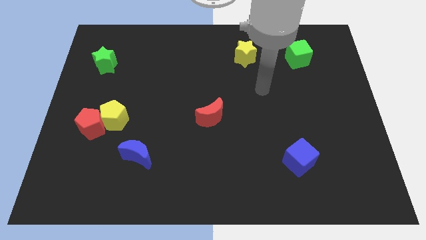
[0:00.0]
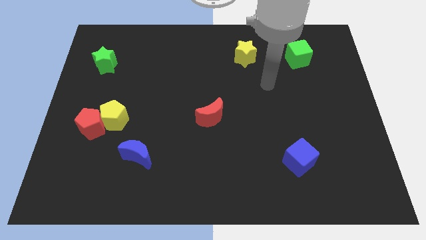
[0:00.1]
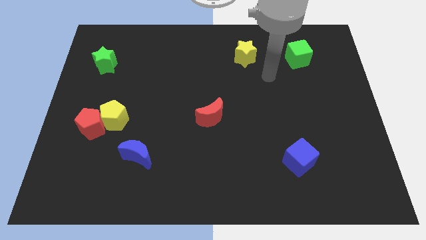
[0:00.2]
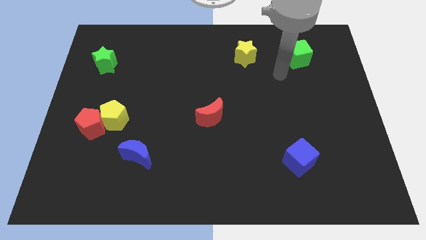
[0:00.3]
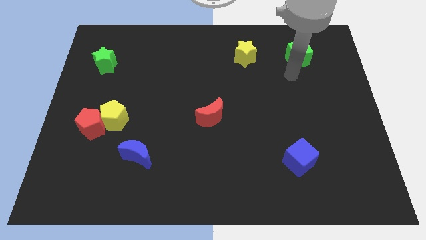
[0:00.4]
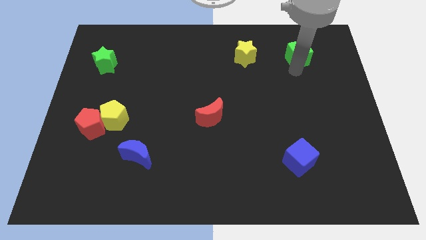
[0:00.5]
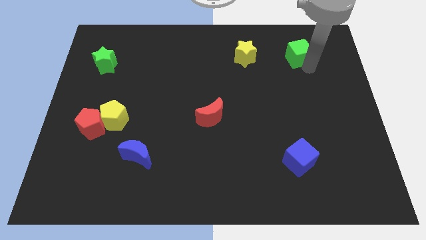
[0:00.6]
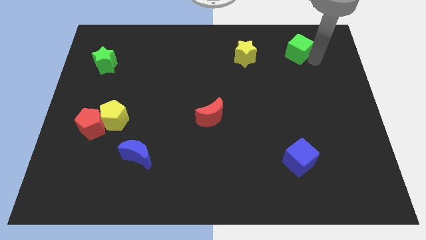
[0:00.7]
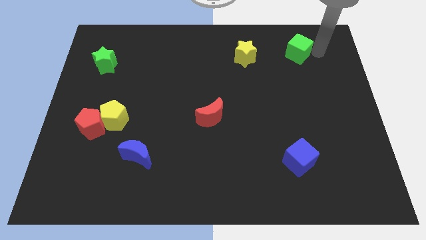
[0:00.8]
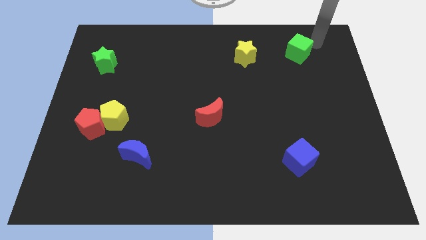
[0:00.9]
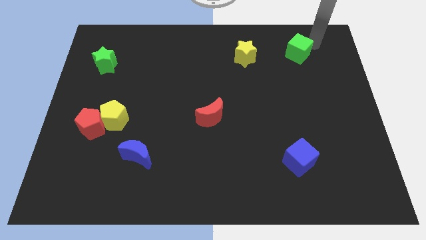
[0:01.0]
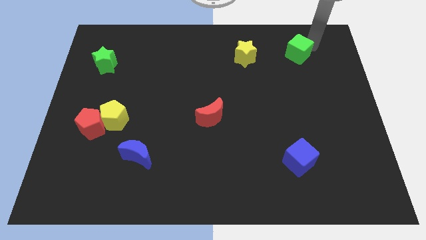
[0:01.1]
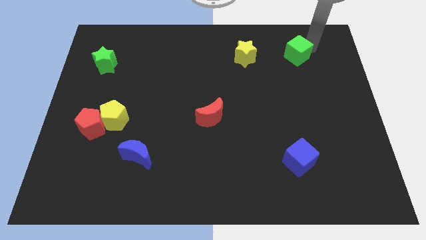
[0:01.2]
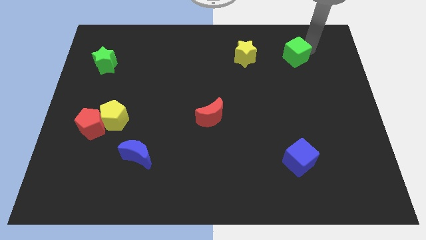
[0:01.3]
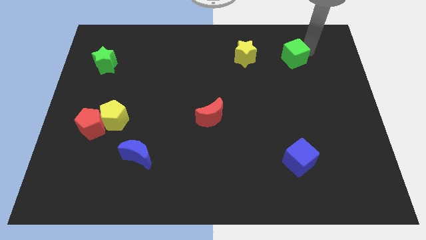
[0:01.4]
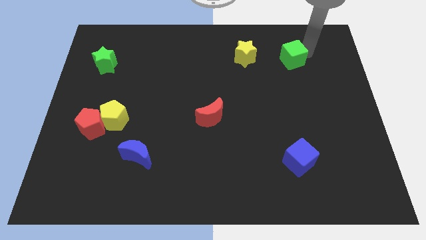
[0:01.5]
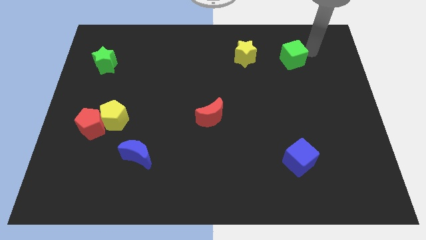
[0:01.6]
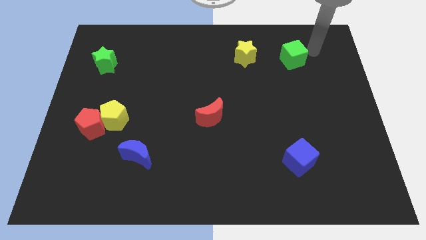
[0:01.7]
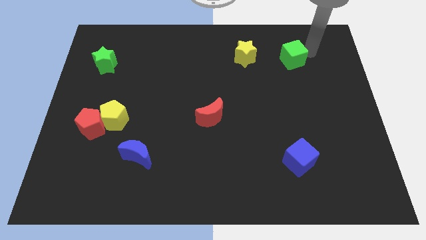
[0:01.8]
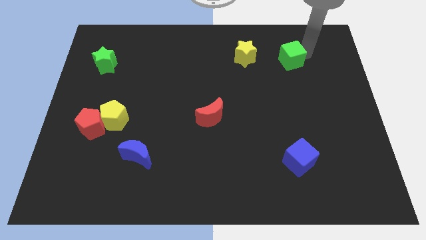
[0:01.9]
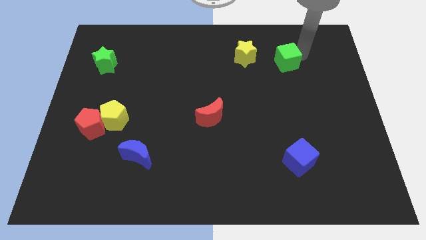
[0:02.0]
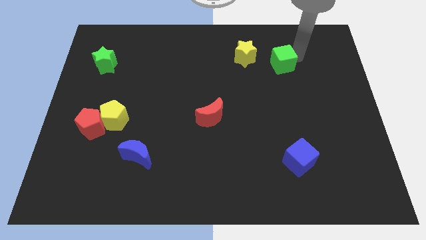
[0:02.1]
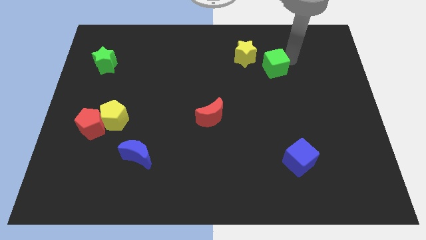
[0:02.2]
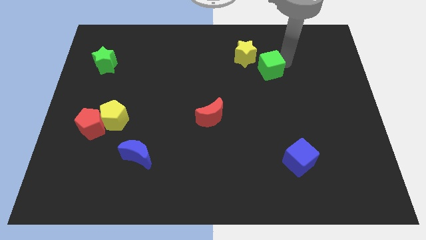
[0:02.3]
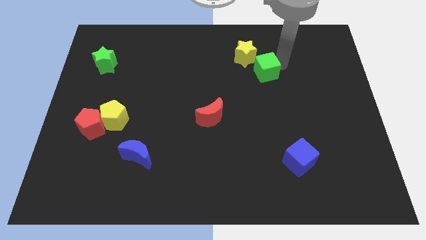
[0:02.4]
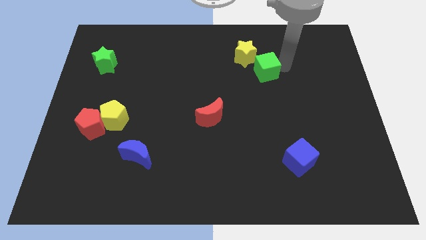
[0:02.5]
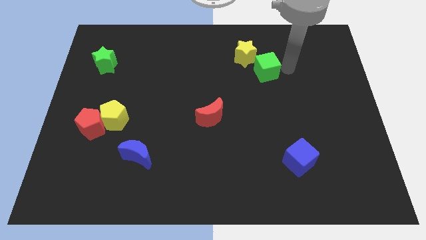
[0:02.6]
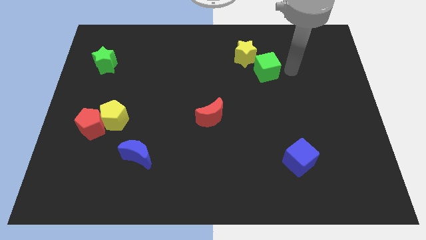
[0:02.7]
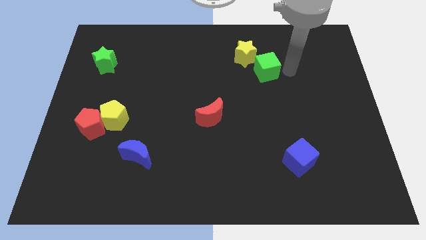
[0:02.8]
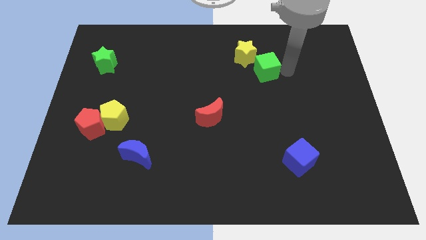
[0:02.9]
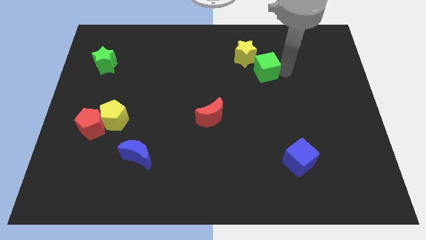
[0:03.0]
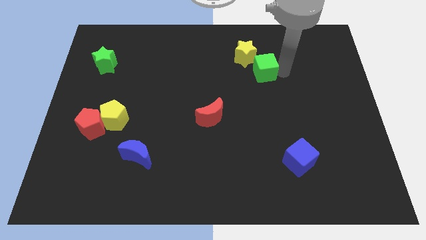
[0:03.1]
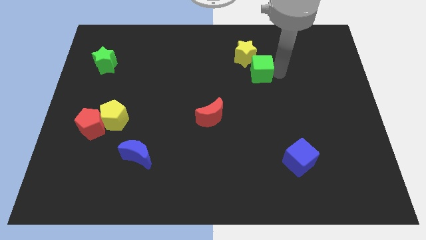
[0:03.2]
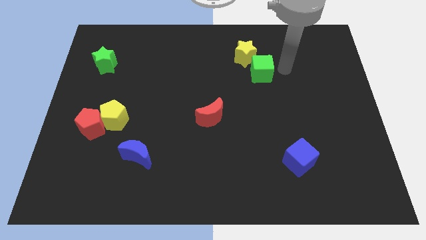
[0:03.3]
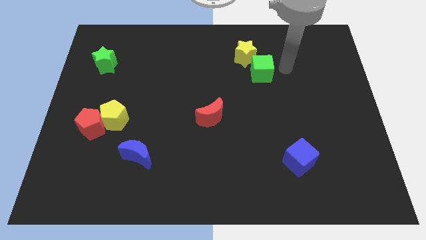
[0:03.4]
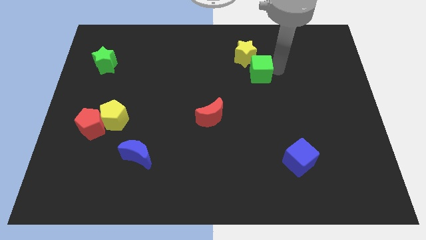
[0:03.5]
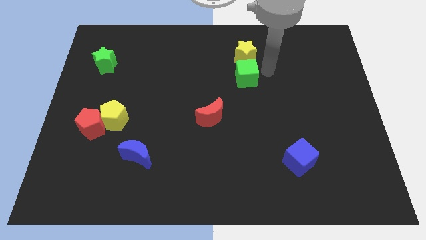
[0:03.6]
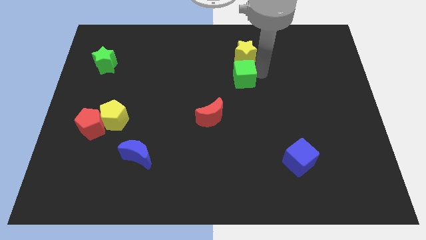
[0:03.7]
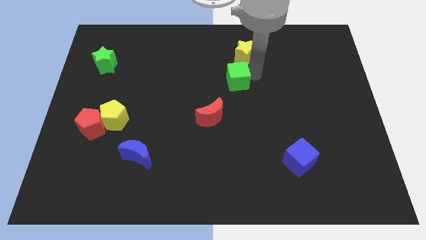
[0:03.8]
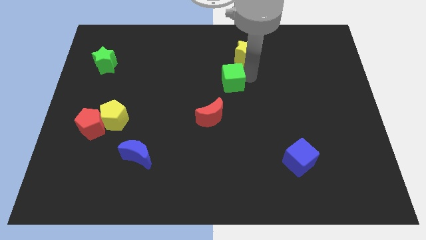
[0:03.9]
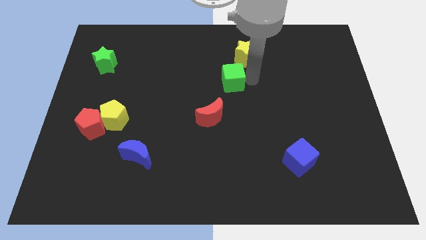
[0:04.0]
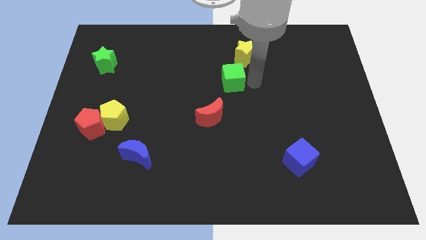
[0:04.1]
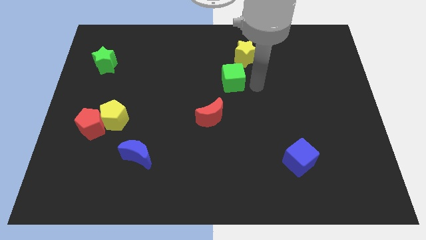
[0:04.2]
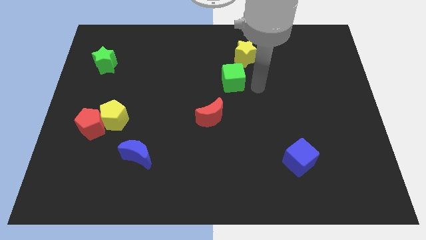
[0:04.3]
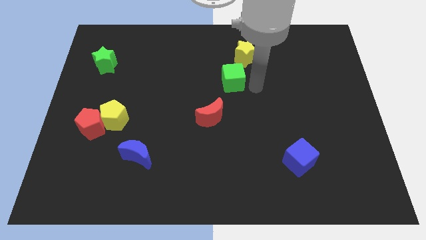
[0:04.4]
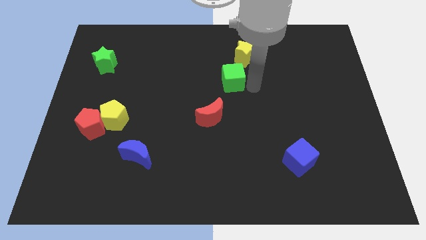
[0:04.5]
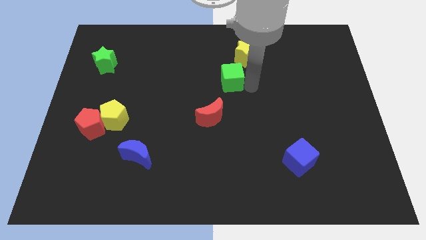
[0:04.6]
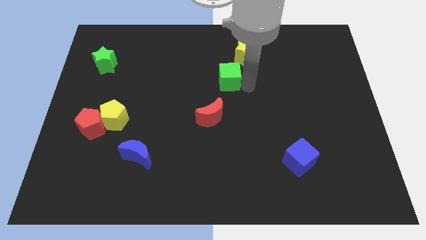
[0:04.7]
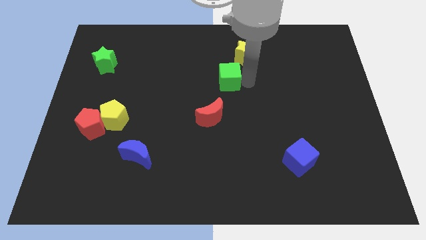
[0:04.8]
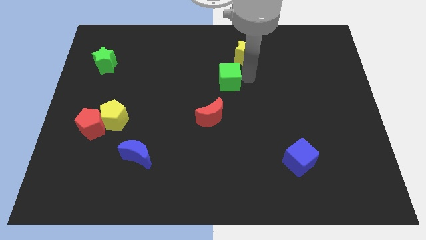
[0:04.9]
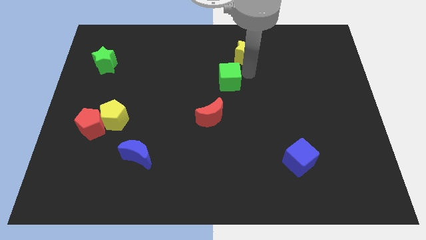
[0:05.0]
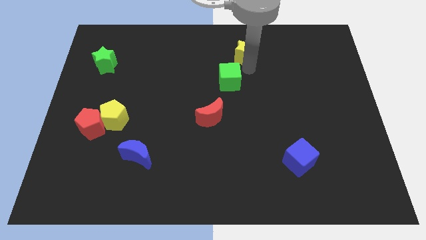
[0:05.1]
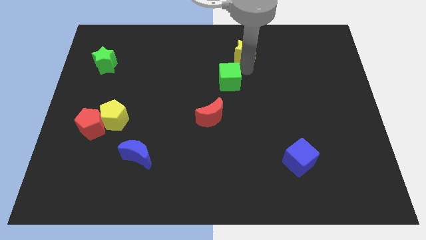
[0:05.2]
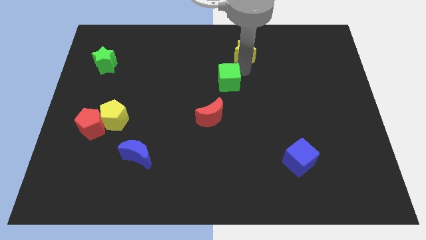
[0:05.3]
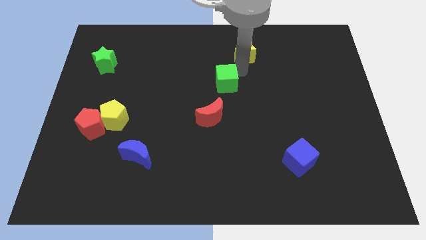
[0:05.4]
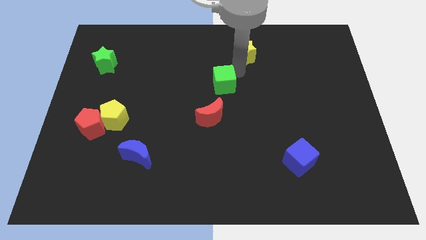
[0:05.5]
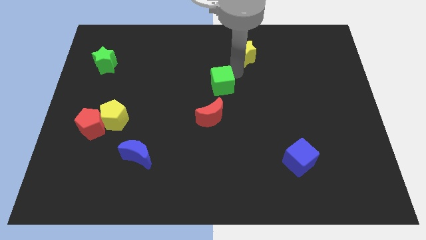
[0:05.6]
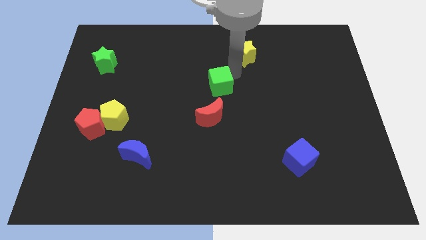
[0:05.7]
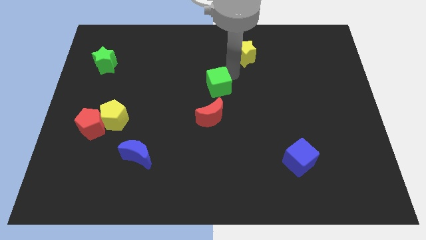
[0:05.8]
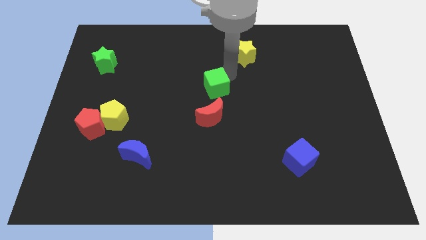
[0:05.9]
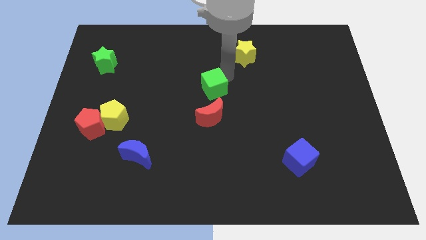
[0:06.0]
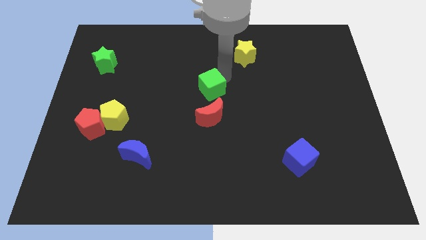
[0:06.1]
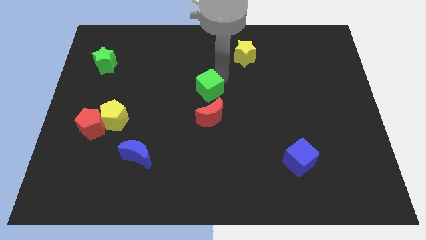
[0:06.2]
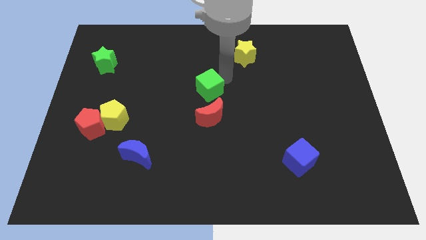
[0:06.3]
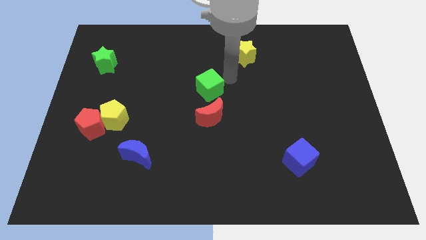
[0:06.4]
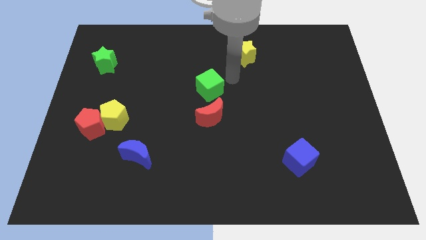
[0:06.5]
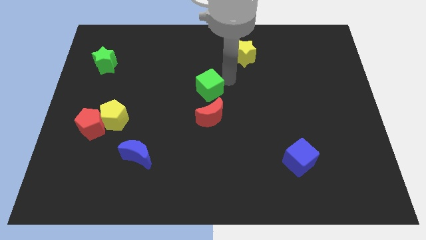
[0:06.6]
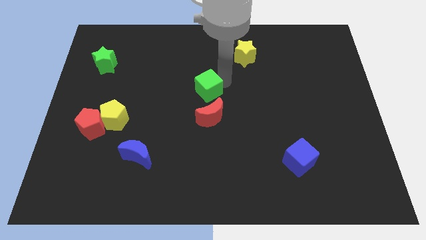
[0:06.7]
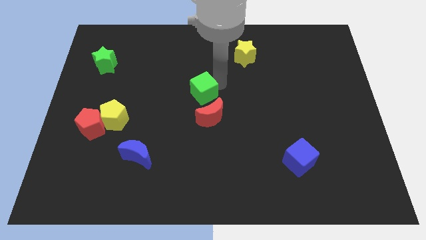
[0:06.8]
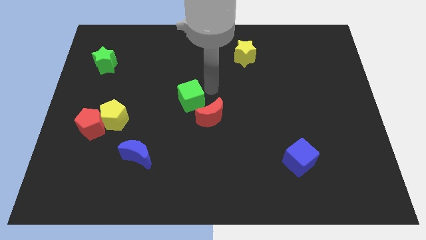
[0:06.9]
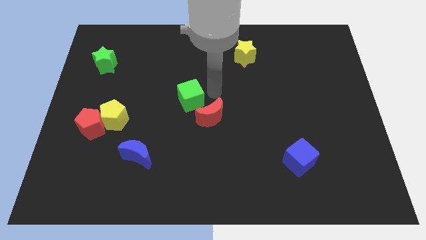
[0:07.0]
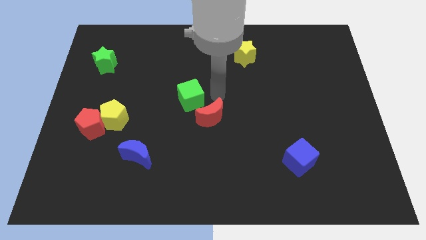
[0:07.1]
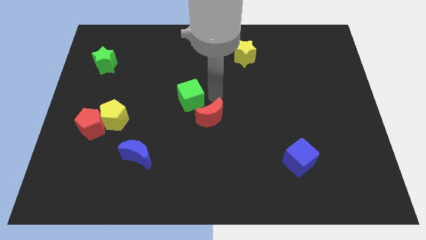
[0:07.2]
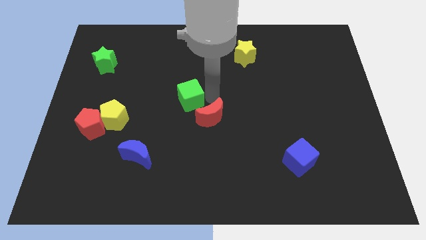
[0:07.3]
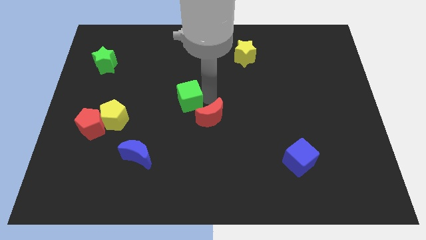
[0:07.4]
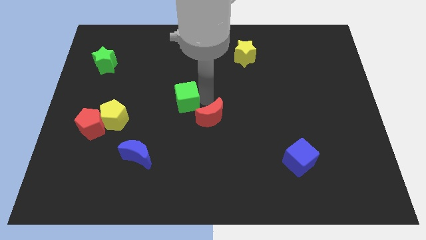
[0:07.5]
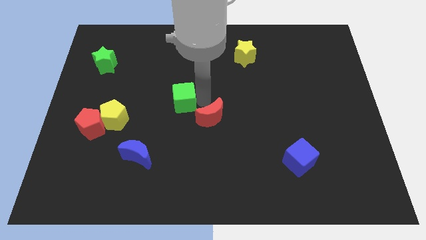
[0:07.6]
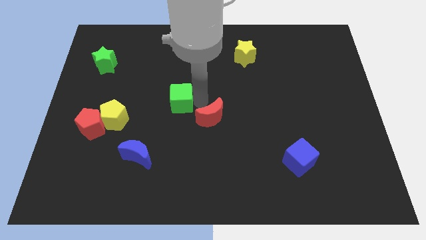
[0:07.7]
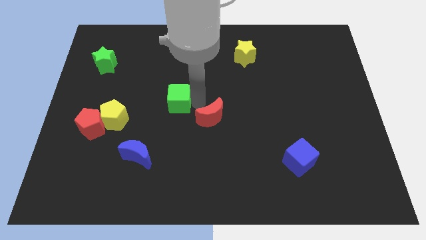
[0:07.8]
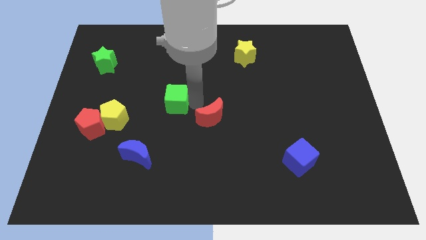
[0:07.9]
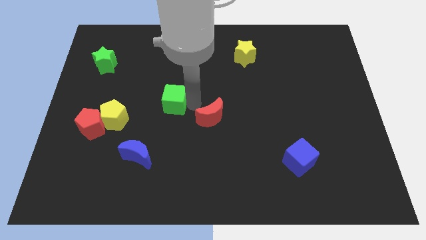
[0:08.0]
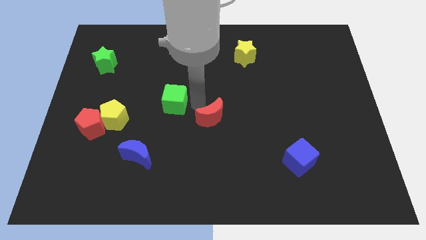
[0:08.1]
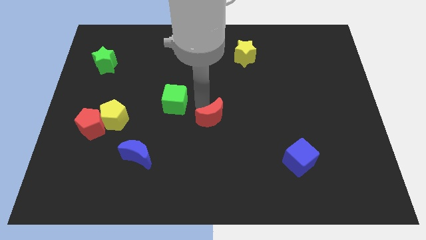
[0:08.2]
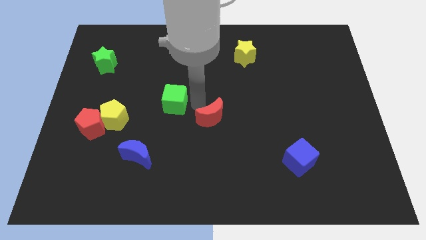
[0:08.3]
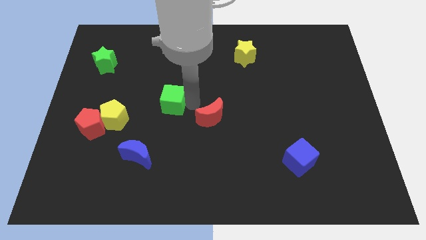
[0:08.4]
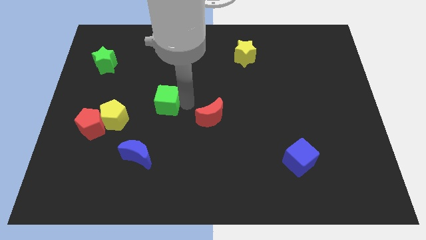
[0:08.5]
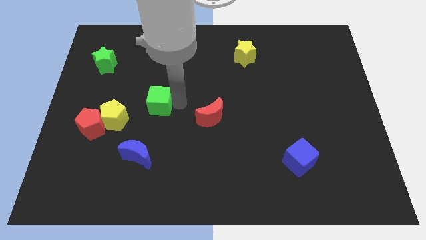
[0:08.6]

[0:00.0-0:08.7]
move the green cube diagonally up and to the right of the yellow pentagon
